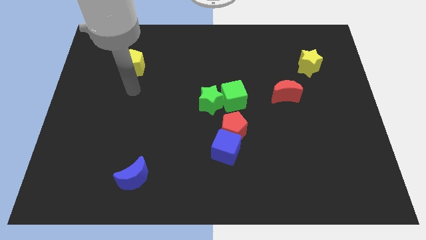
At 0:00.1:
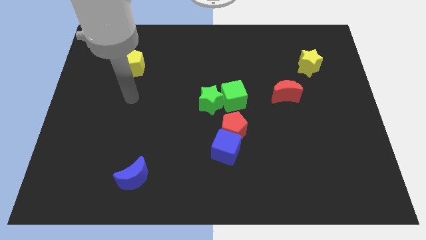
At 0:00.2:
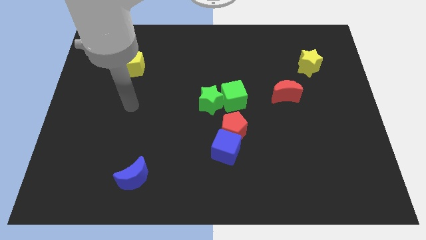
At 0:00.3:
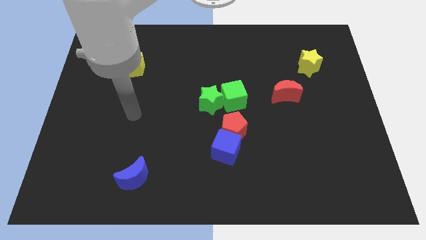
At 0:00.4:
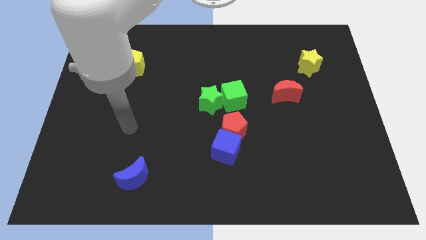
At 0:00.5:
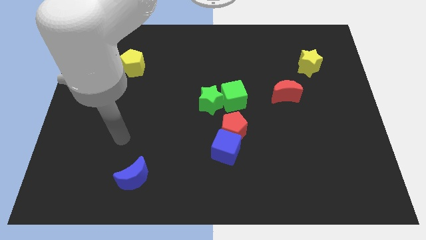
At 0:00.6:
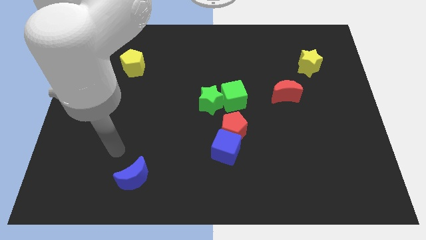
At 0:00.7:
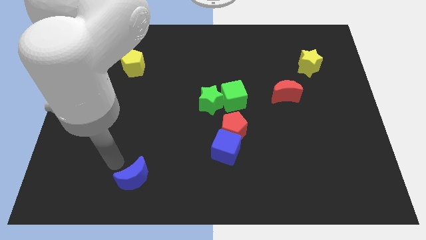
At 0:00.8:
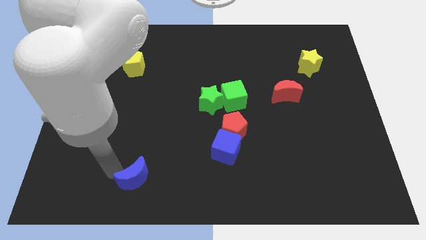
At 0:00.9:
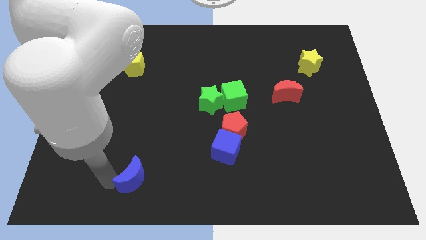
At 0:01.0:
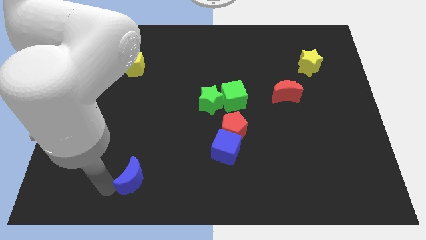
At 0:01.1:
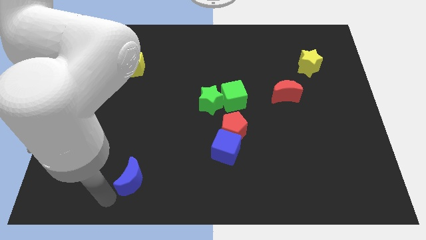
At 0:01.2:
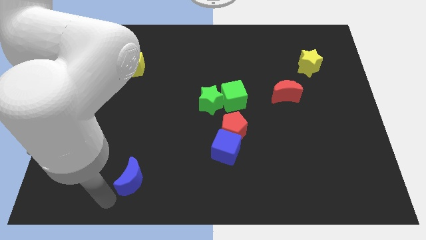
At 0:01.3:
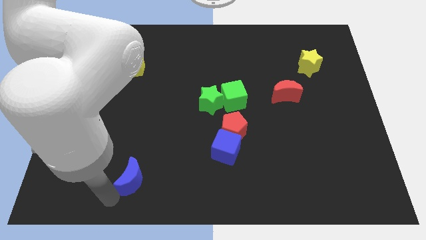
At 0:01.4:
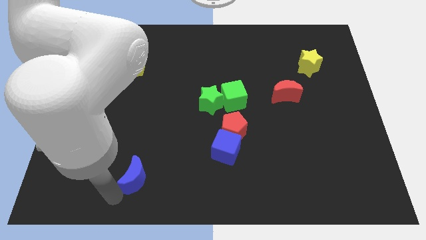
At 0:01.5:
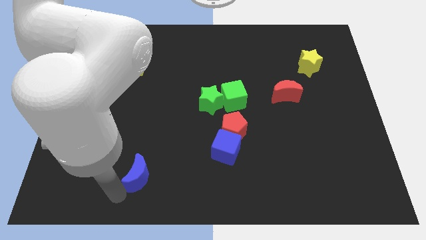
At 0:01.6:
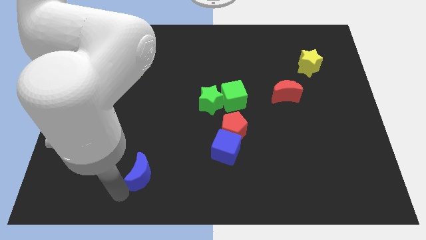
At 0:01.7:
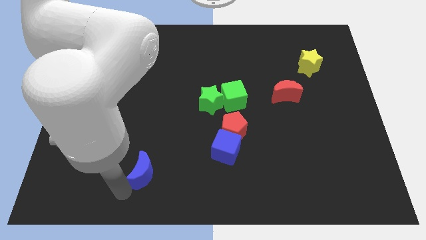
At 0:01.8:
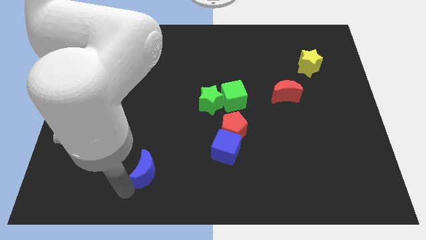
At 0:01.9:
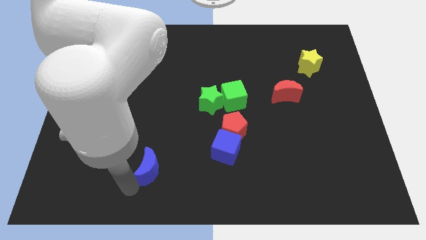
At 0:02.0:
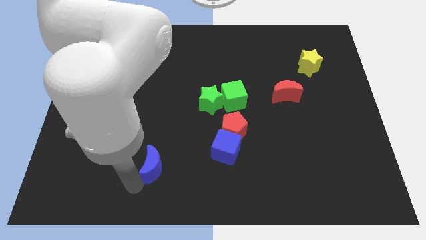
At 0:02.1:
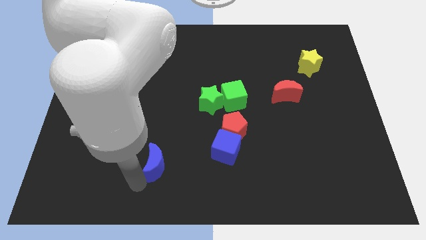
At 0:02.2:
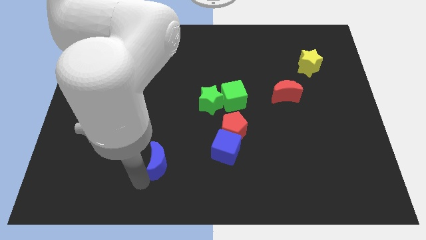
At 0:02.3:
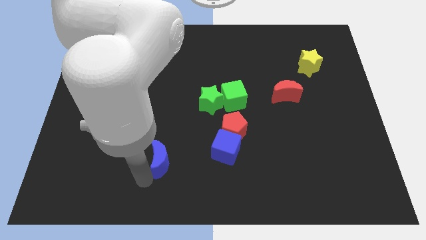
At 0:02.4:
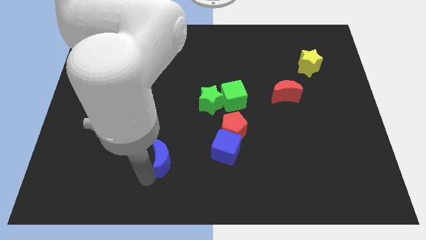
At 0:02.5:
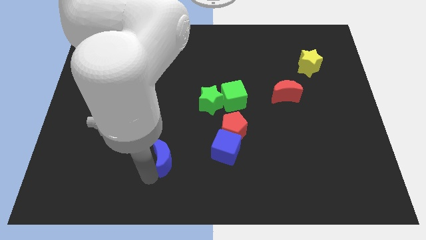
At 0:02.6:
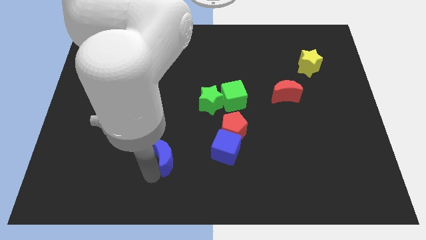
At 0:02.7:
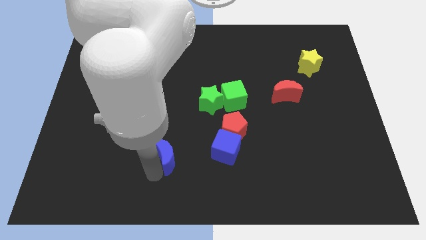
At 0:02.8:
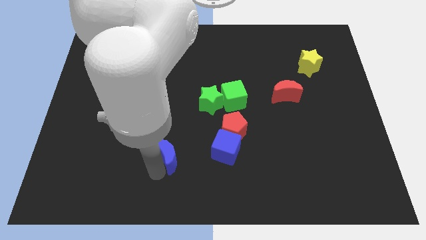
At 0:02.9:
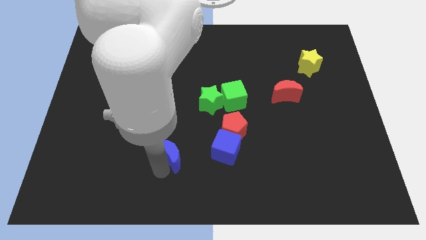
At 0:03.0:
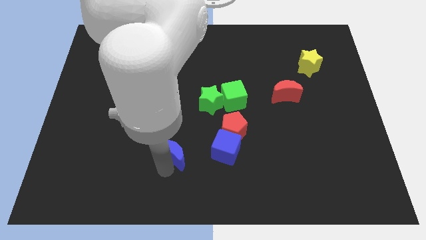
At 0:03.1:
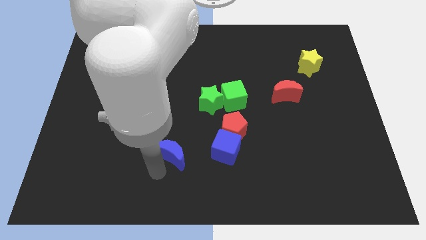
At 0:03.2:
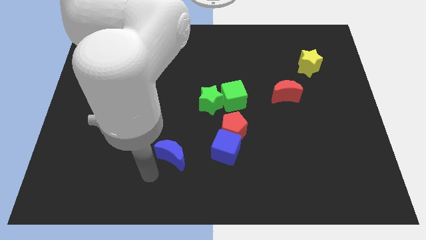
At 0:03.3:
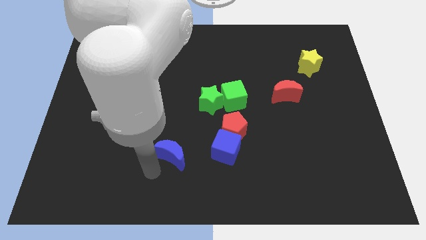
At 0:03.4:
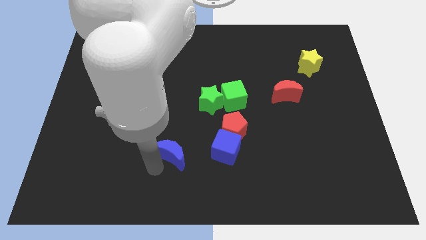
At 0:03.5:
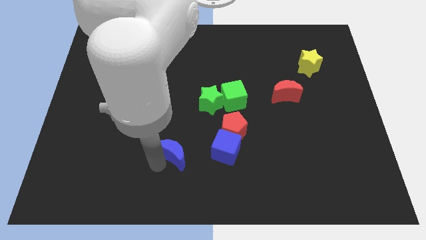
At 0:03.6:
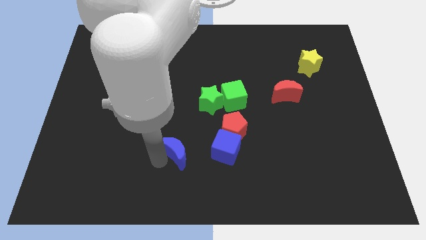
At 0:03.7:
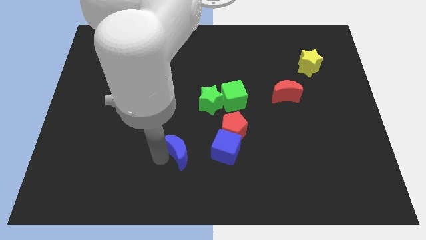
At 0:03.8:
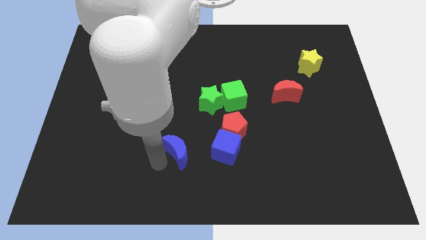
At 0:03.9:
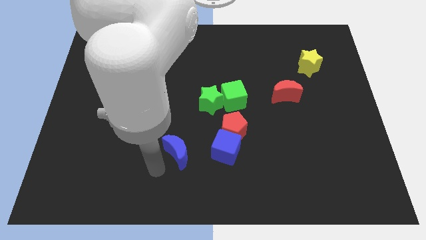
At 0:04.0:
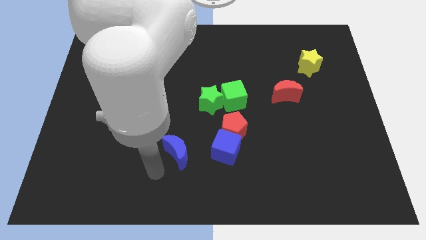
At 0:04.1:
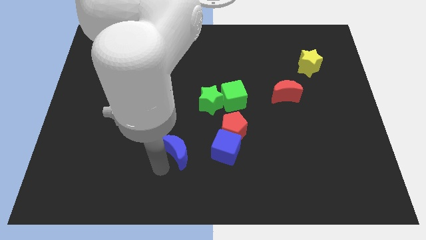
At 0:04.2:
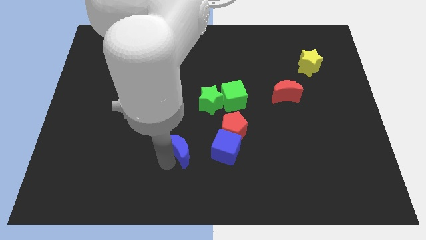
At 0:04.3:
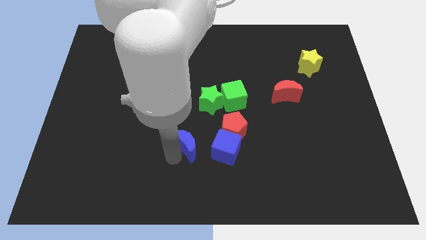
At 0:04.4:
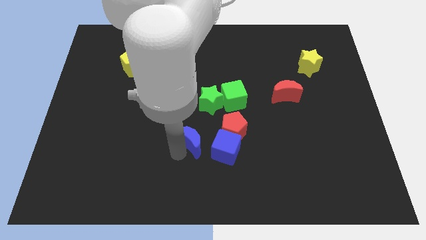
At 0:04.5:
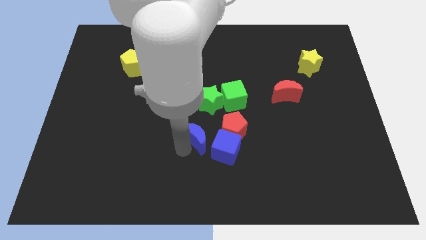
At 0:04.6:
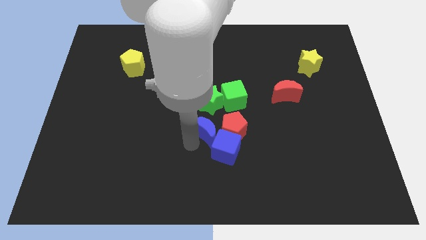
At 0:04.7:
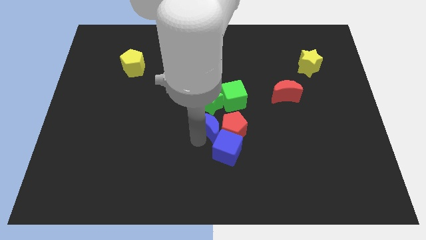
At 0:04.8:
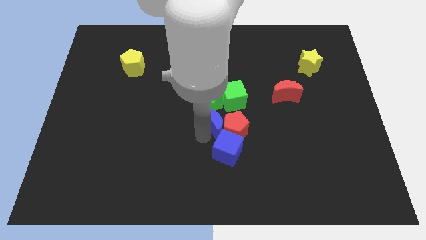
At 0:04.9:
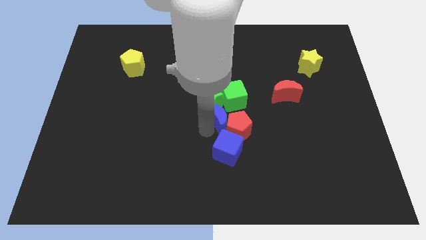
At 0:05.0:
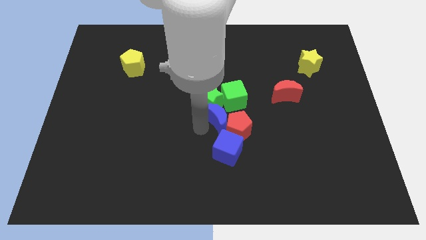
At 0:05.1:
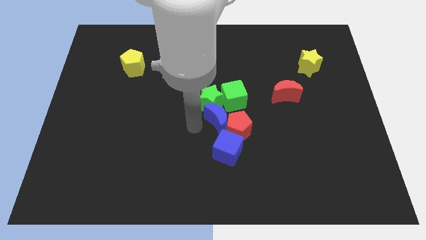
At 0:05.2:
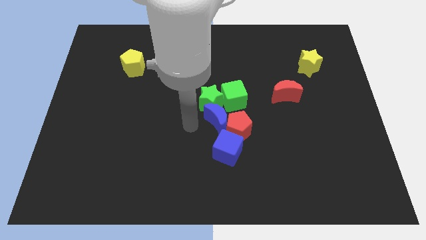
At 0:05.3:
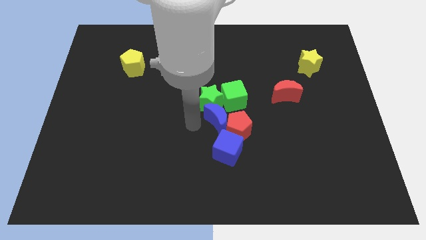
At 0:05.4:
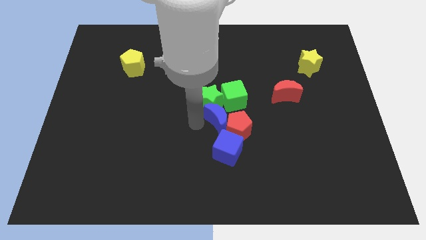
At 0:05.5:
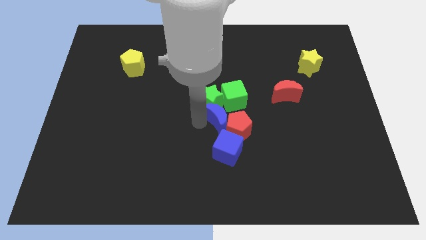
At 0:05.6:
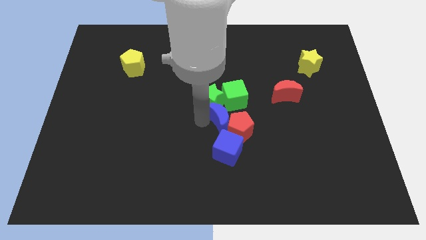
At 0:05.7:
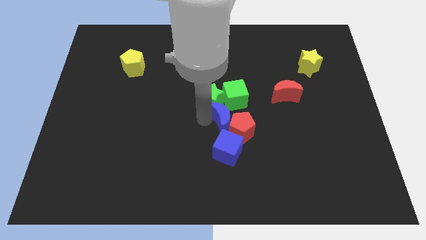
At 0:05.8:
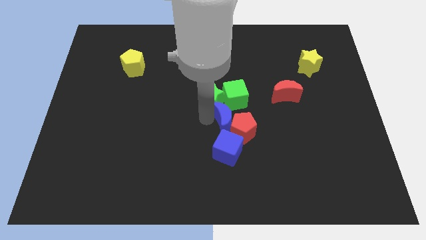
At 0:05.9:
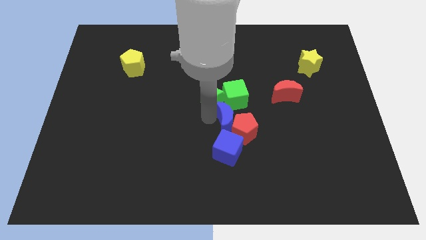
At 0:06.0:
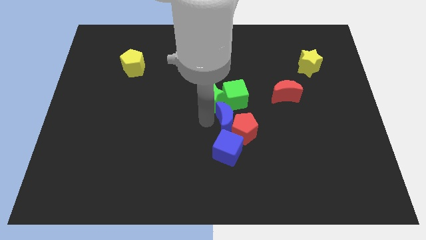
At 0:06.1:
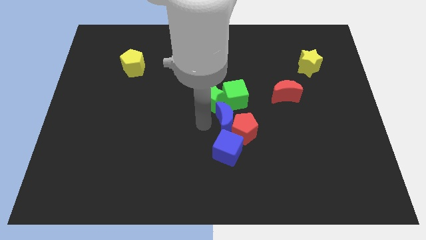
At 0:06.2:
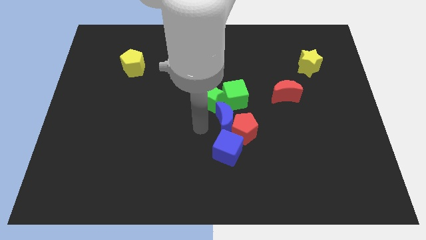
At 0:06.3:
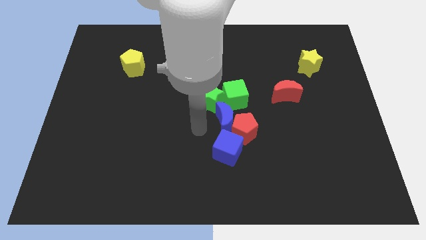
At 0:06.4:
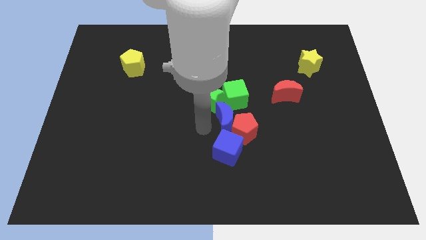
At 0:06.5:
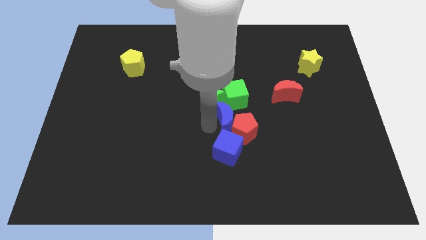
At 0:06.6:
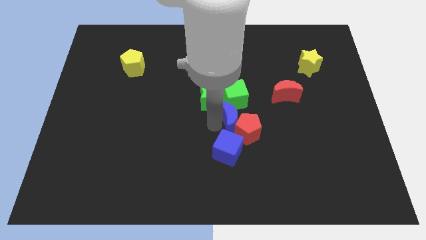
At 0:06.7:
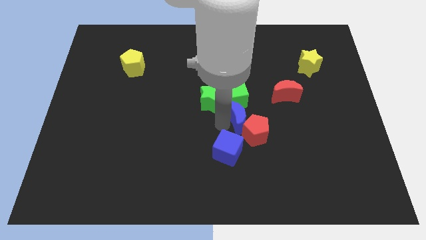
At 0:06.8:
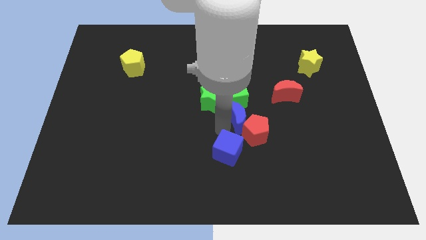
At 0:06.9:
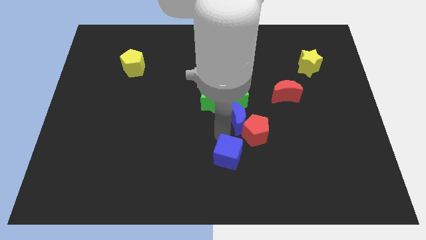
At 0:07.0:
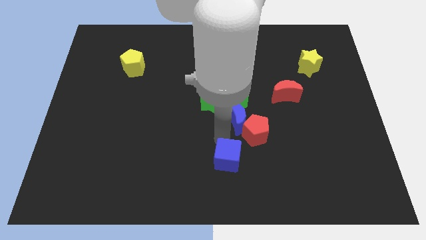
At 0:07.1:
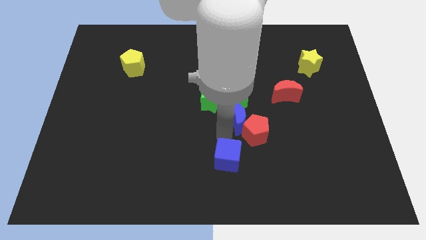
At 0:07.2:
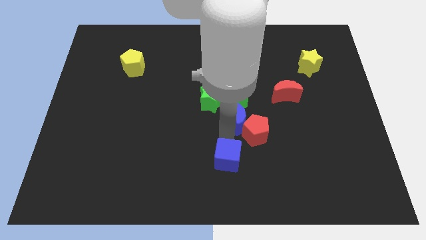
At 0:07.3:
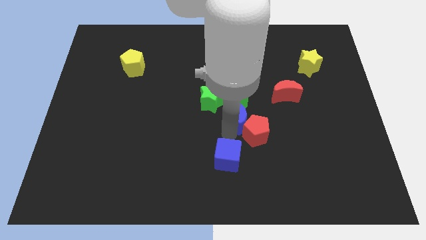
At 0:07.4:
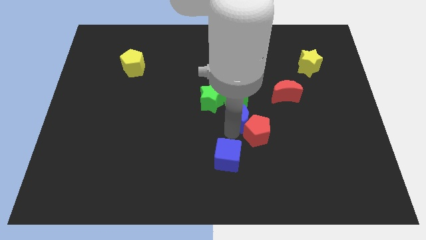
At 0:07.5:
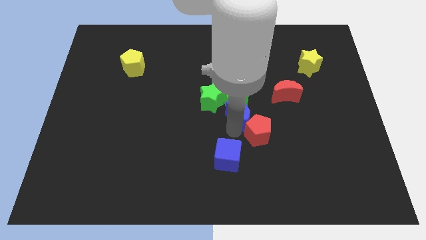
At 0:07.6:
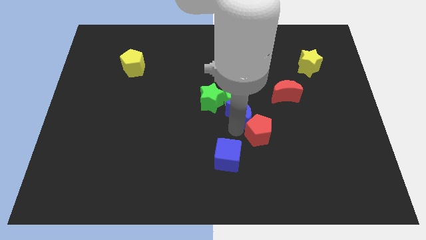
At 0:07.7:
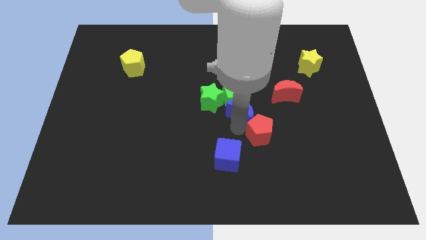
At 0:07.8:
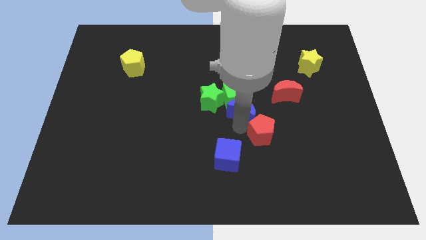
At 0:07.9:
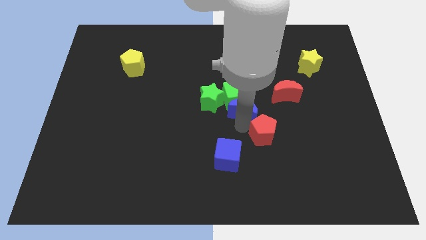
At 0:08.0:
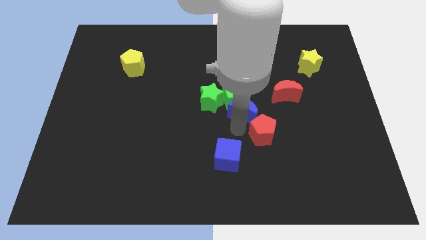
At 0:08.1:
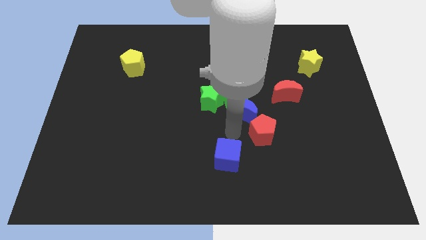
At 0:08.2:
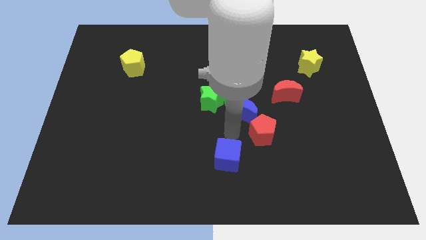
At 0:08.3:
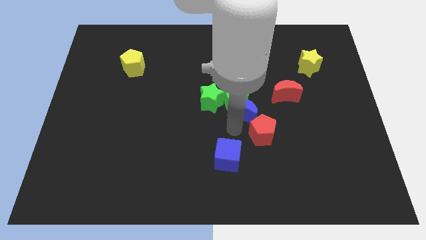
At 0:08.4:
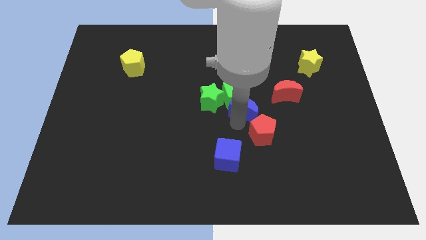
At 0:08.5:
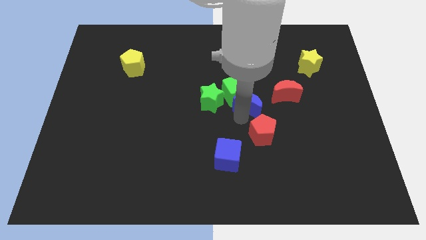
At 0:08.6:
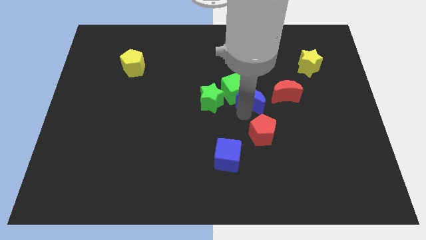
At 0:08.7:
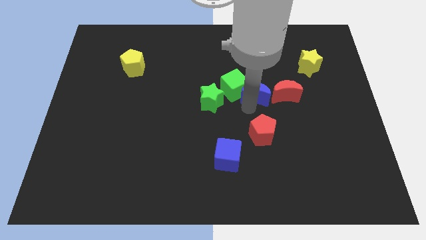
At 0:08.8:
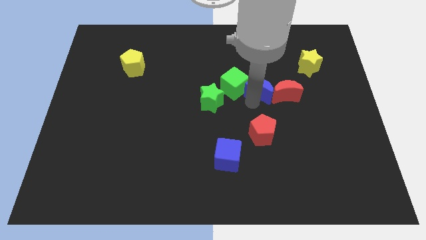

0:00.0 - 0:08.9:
slide the blue moon diagonally up and to the left of the red moon
